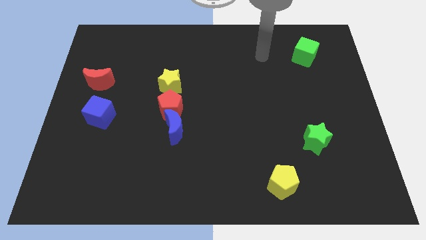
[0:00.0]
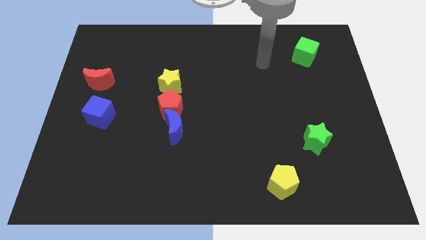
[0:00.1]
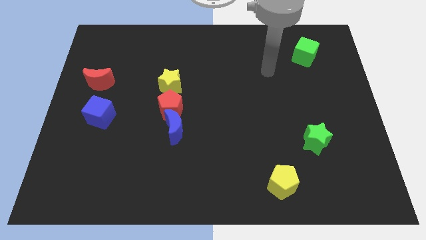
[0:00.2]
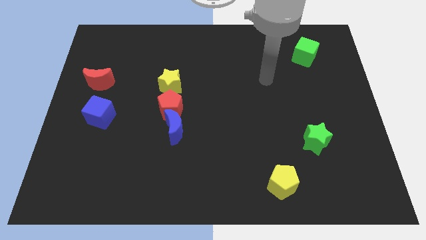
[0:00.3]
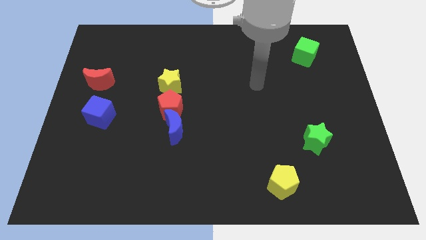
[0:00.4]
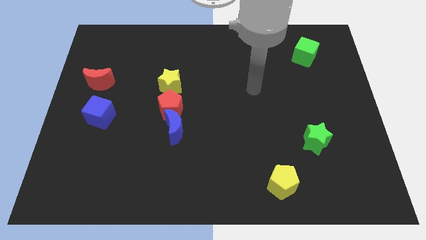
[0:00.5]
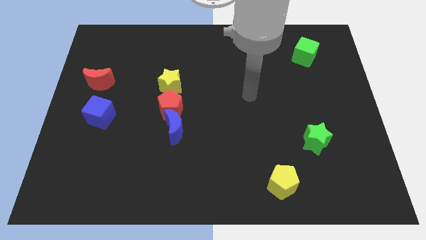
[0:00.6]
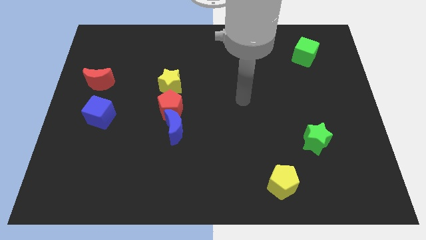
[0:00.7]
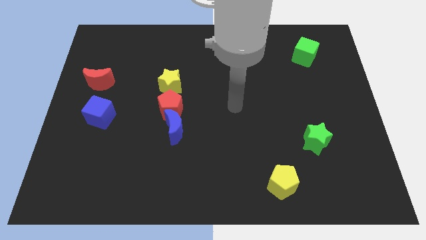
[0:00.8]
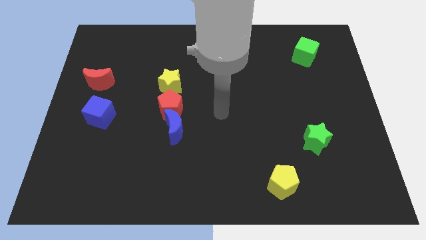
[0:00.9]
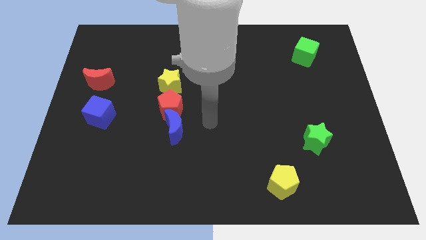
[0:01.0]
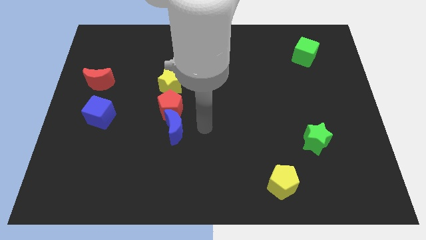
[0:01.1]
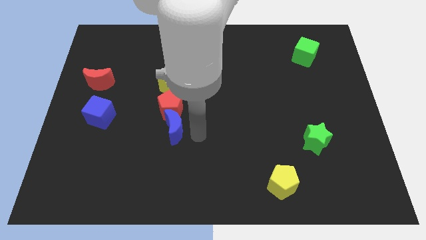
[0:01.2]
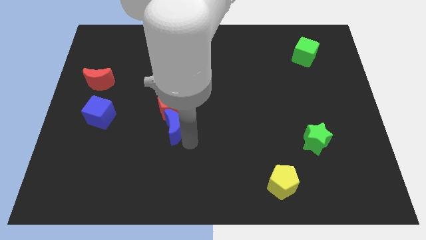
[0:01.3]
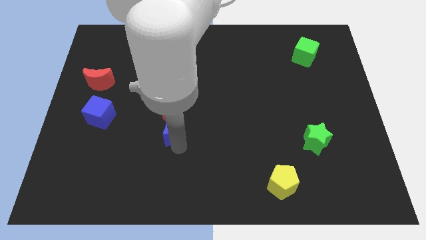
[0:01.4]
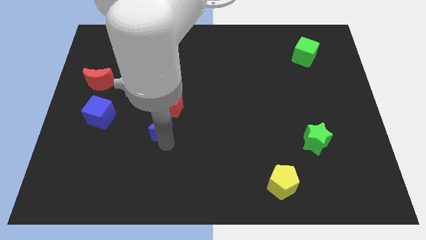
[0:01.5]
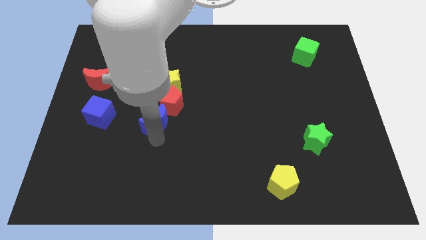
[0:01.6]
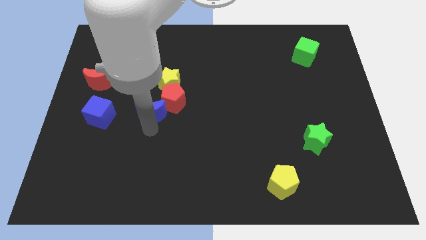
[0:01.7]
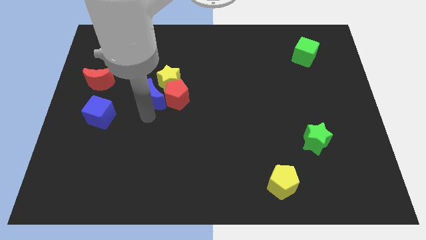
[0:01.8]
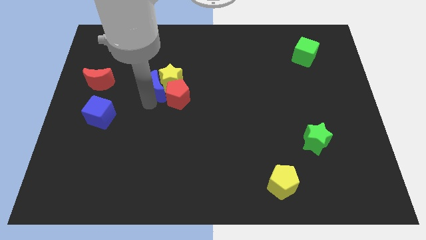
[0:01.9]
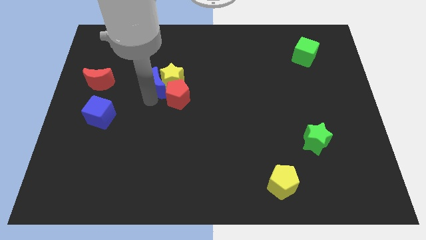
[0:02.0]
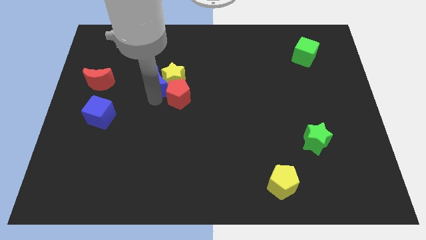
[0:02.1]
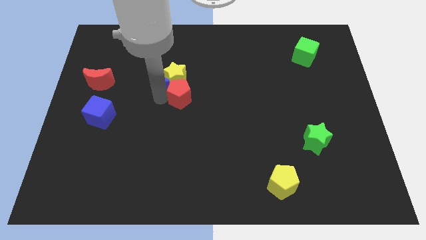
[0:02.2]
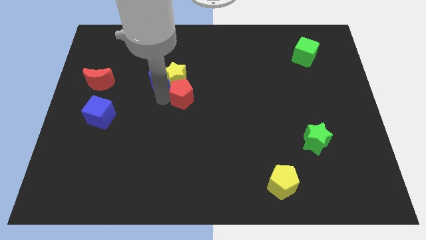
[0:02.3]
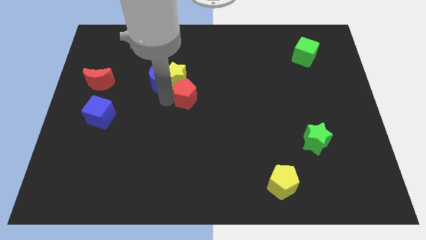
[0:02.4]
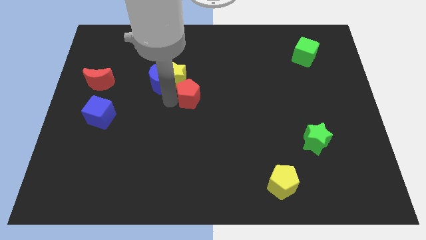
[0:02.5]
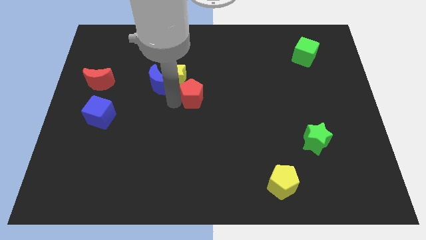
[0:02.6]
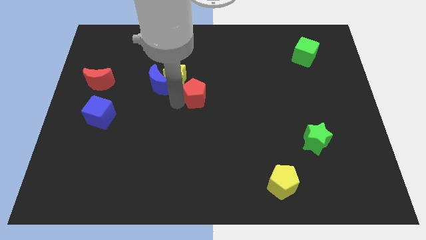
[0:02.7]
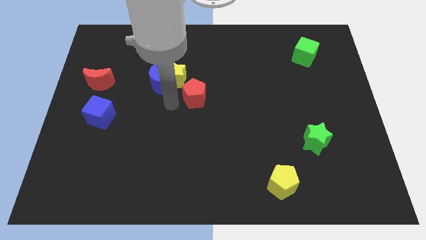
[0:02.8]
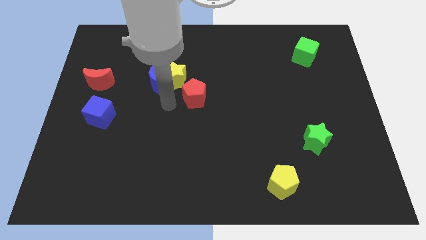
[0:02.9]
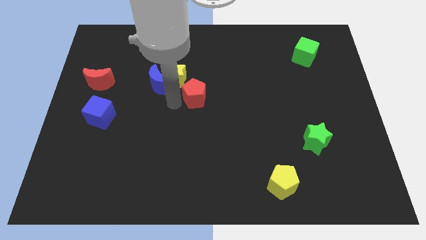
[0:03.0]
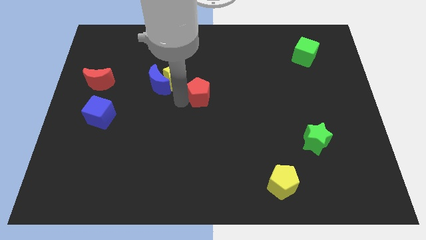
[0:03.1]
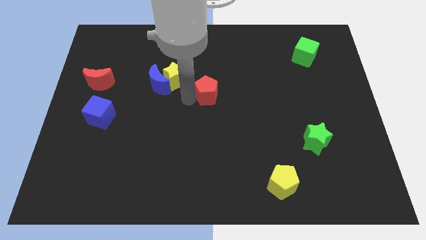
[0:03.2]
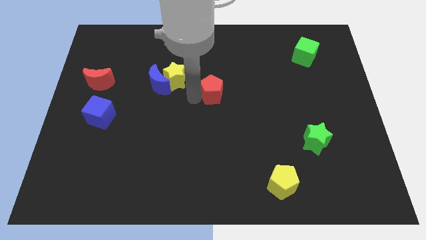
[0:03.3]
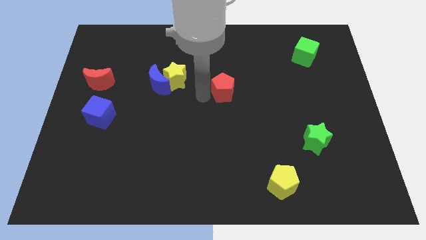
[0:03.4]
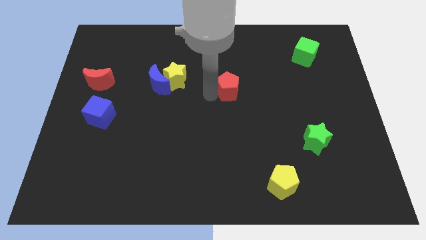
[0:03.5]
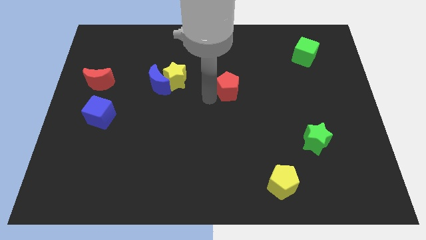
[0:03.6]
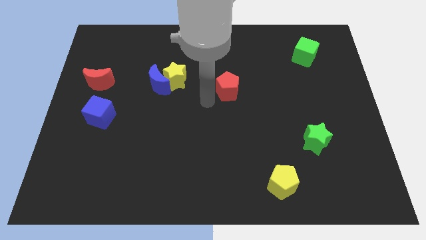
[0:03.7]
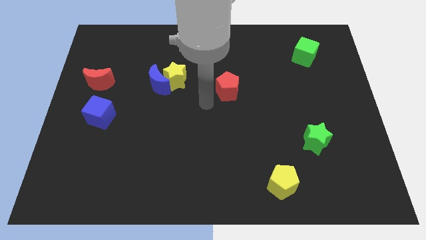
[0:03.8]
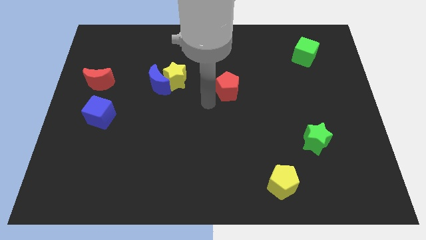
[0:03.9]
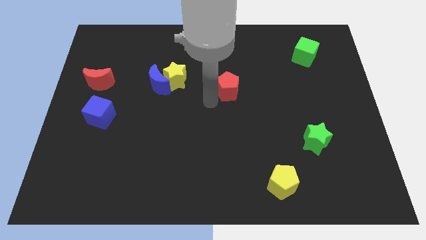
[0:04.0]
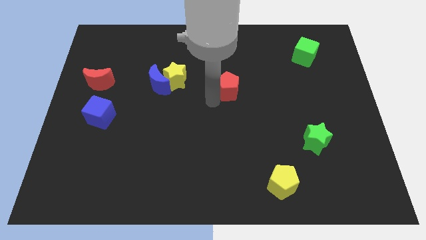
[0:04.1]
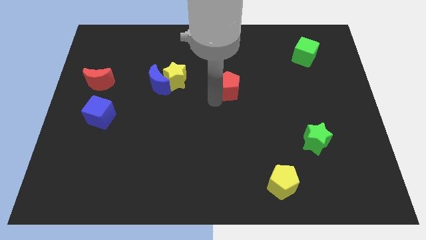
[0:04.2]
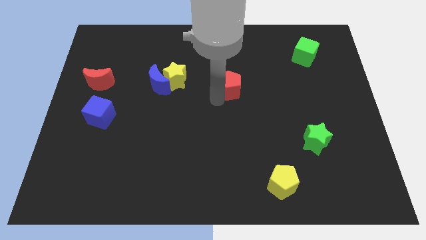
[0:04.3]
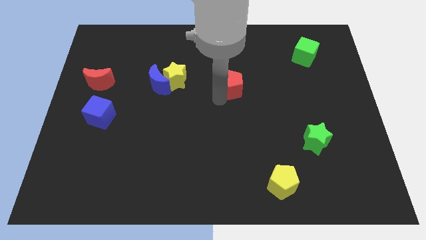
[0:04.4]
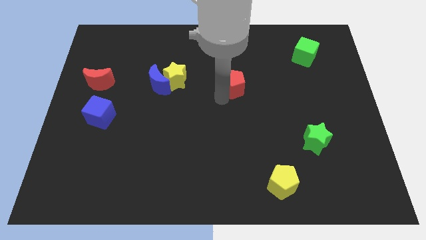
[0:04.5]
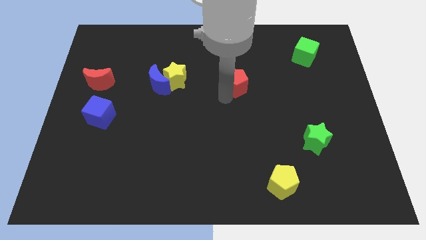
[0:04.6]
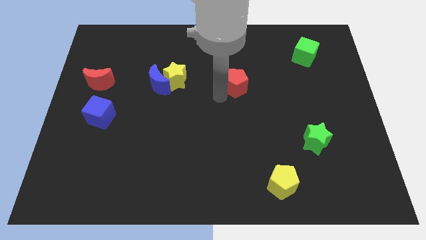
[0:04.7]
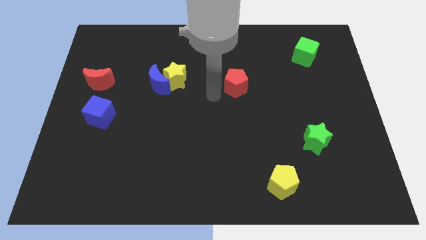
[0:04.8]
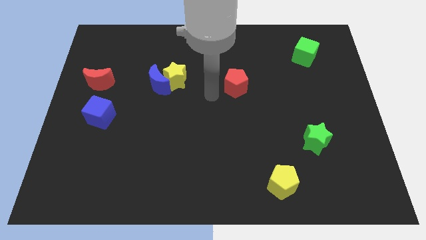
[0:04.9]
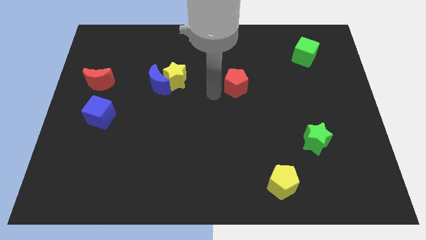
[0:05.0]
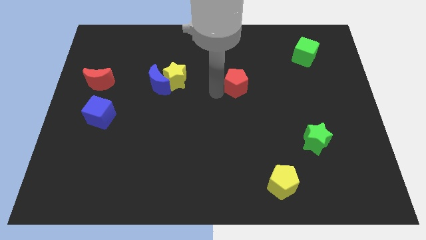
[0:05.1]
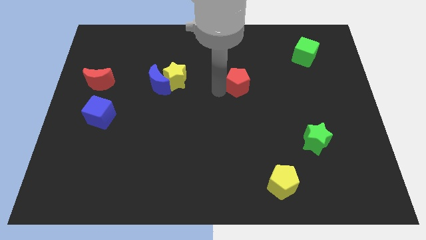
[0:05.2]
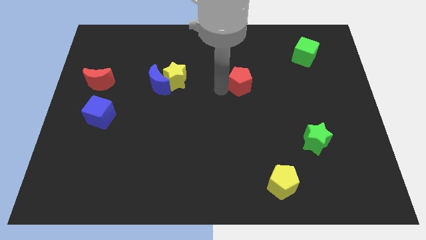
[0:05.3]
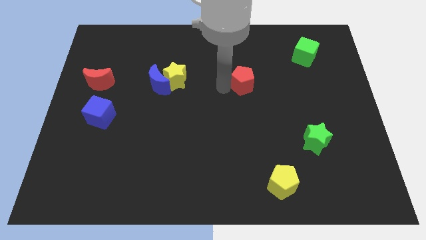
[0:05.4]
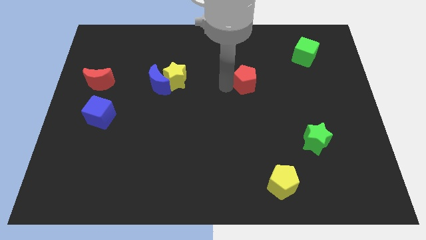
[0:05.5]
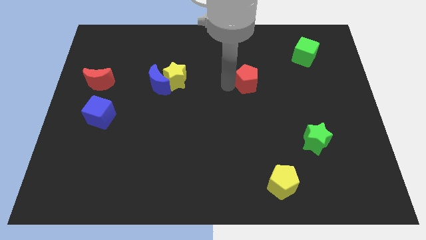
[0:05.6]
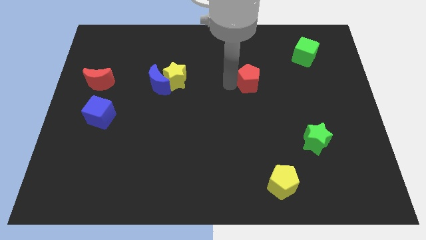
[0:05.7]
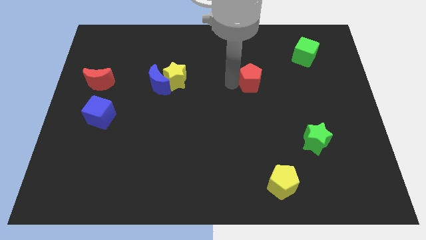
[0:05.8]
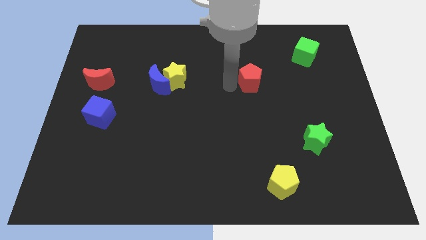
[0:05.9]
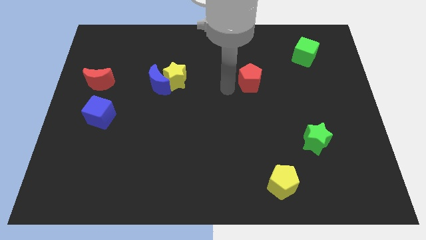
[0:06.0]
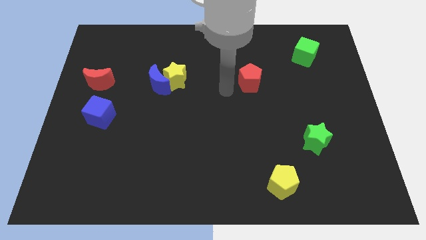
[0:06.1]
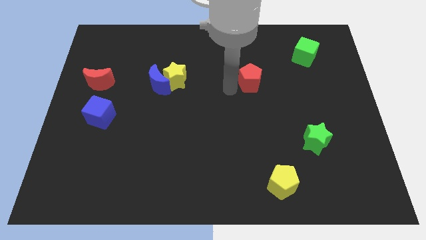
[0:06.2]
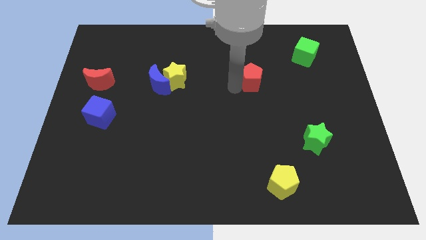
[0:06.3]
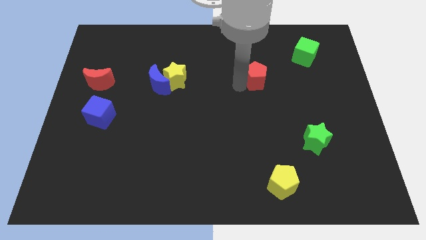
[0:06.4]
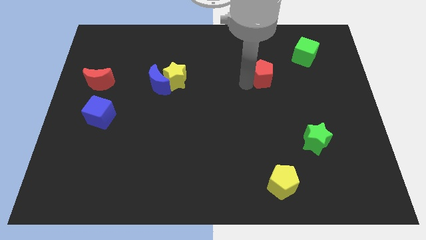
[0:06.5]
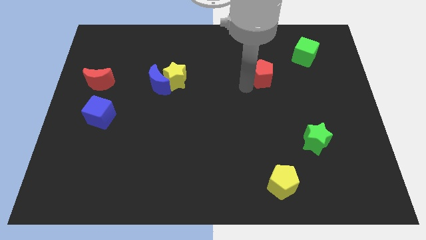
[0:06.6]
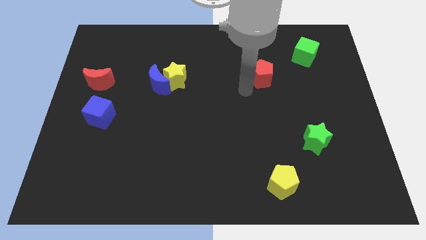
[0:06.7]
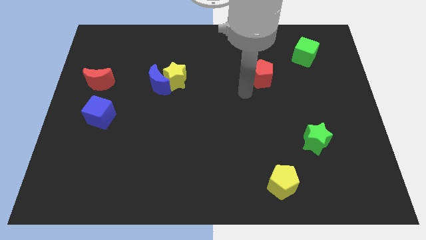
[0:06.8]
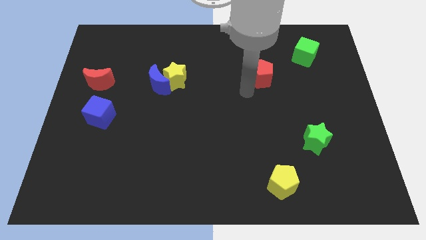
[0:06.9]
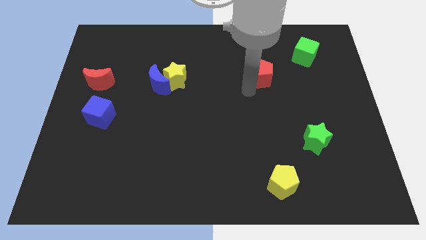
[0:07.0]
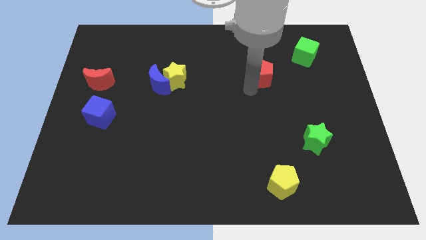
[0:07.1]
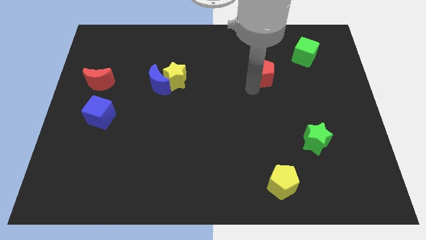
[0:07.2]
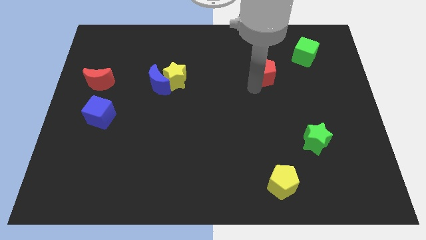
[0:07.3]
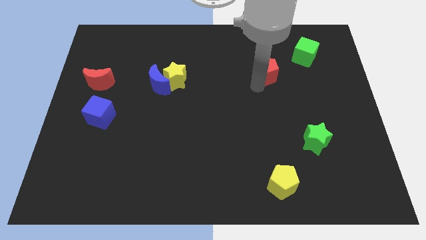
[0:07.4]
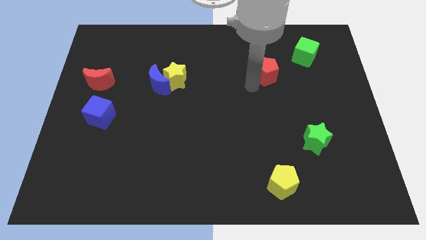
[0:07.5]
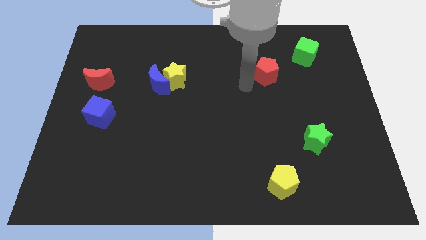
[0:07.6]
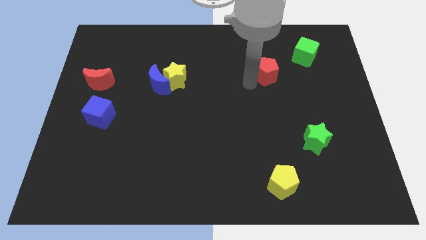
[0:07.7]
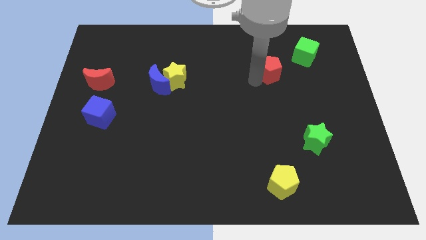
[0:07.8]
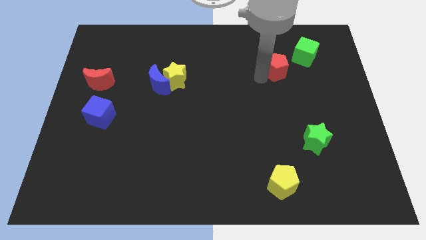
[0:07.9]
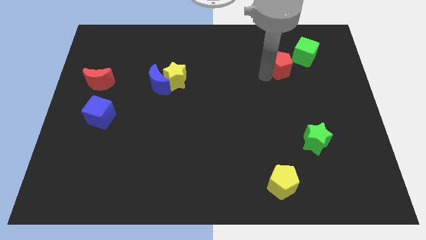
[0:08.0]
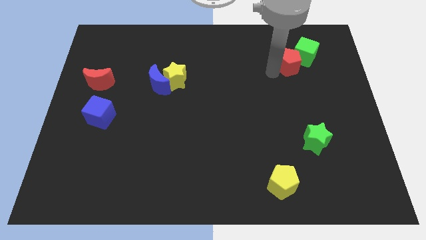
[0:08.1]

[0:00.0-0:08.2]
move the red pentagon towards the green cube
